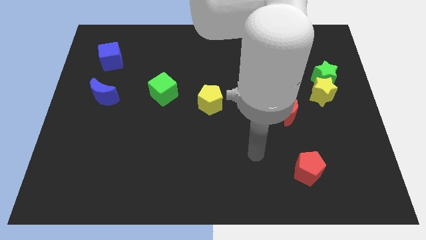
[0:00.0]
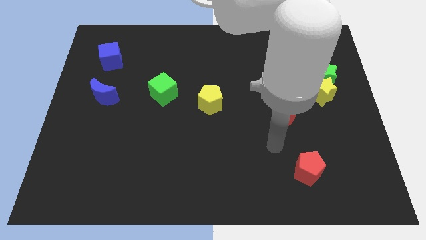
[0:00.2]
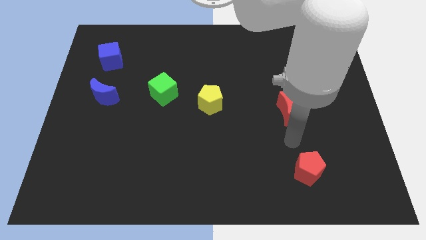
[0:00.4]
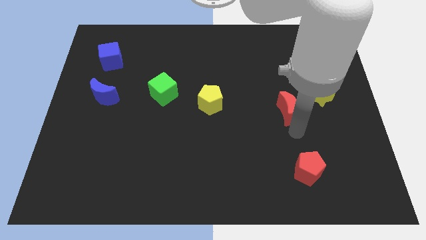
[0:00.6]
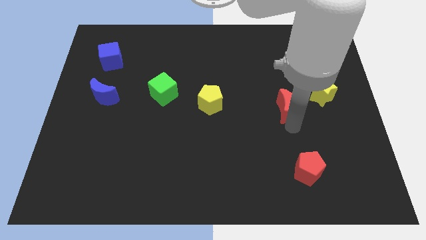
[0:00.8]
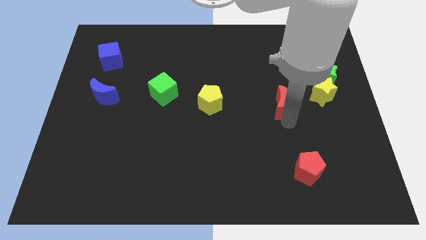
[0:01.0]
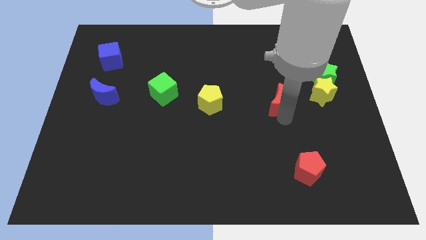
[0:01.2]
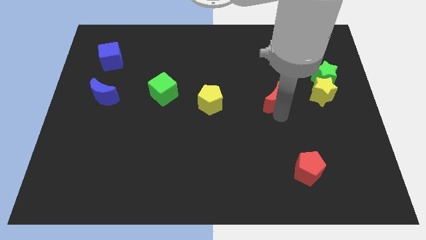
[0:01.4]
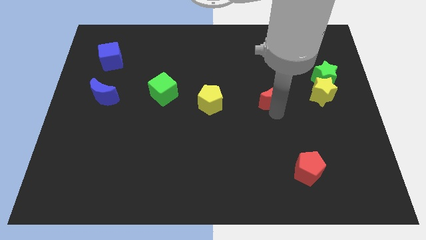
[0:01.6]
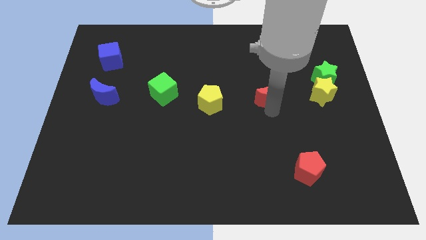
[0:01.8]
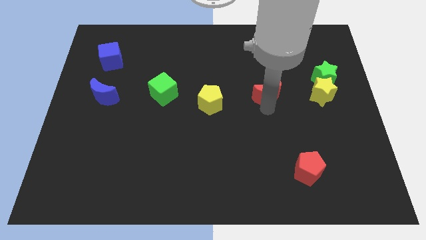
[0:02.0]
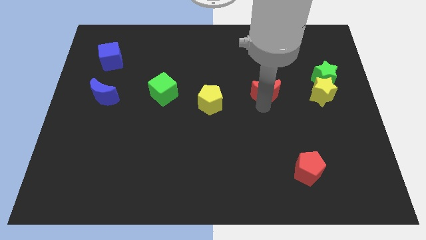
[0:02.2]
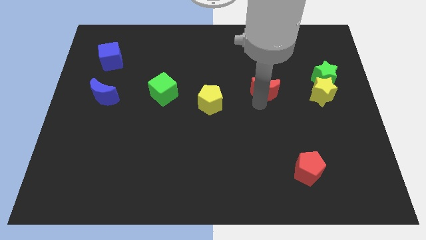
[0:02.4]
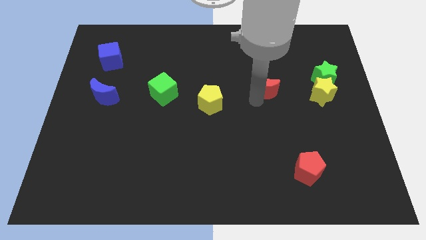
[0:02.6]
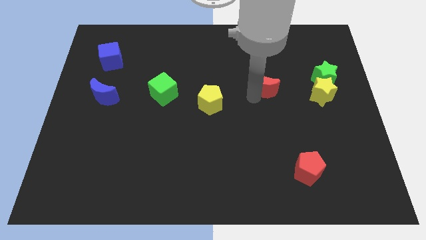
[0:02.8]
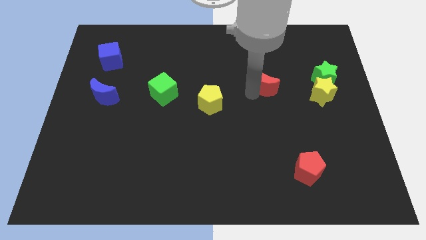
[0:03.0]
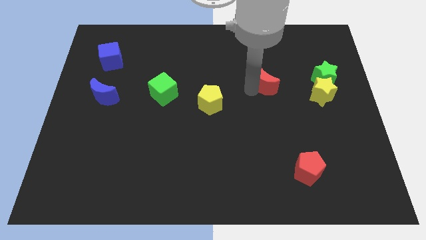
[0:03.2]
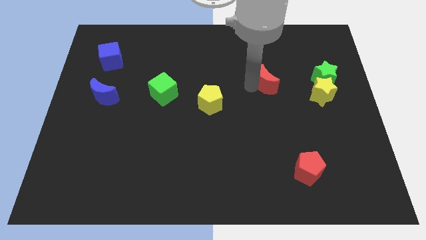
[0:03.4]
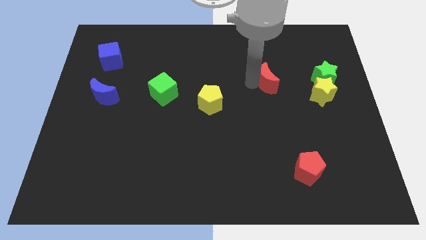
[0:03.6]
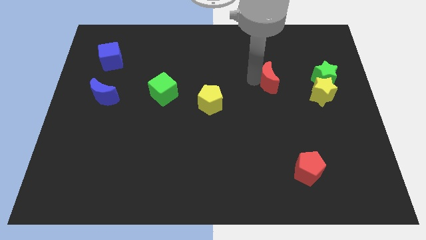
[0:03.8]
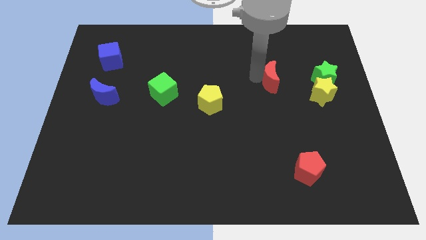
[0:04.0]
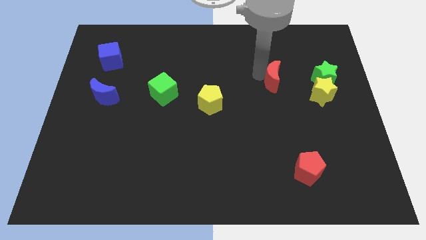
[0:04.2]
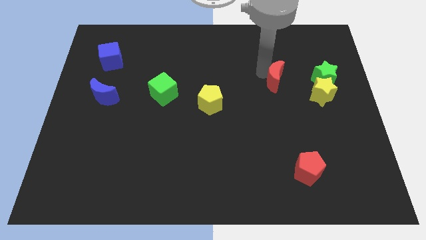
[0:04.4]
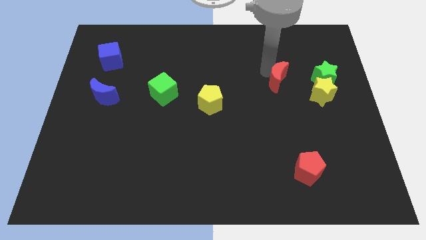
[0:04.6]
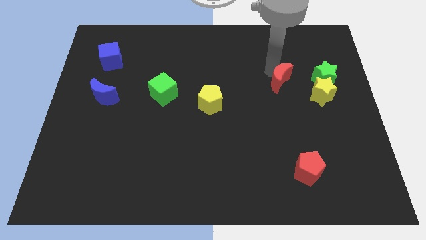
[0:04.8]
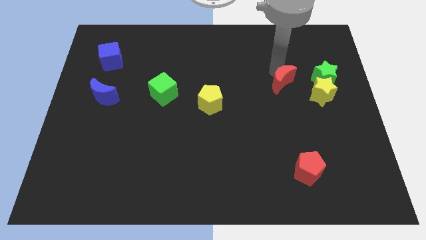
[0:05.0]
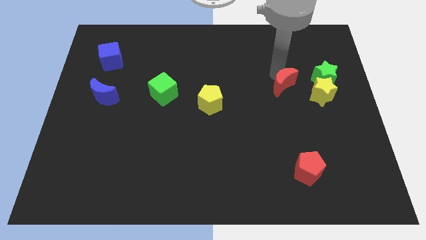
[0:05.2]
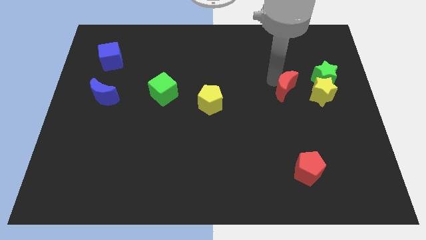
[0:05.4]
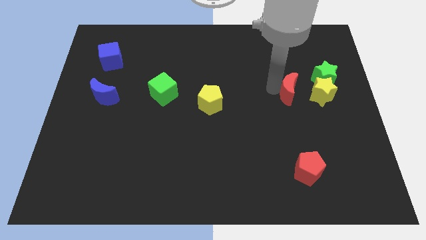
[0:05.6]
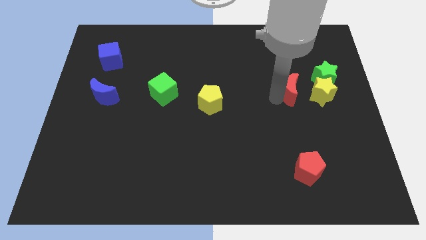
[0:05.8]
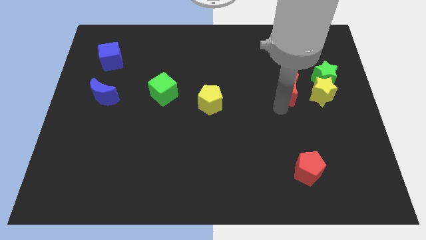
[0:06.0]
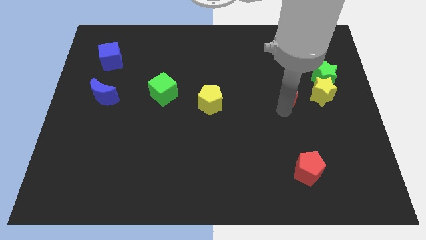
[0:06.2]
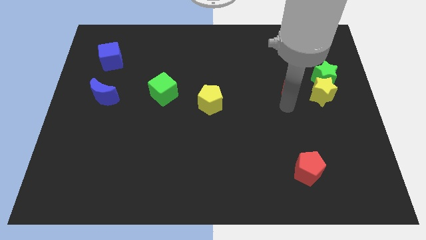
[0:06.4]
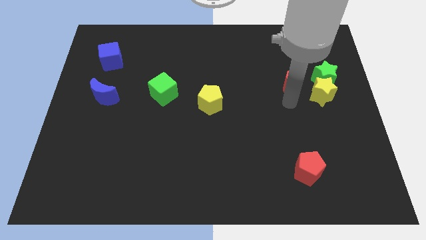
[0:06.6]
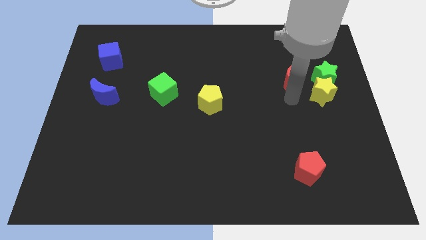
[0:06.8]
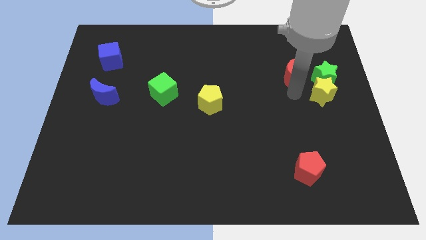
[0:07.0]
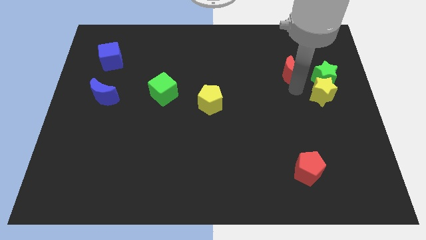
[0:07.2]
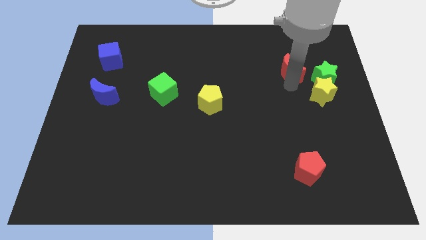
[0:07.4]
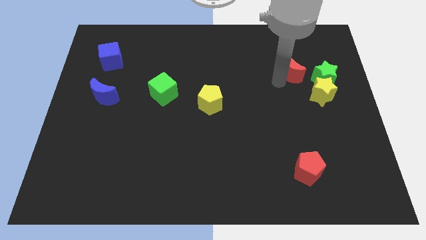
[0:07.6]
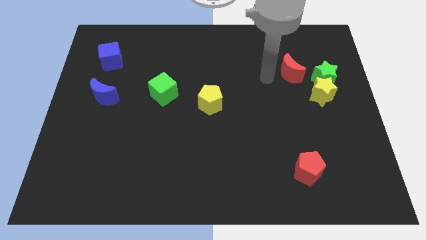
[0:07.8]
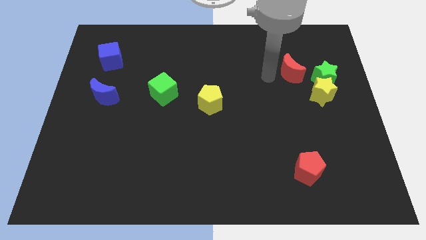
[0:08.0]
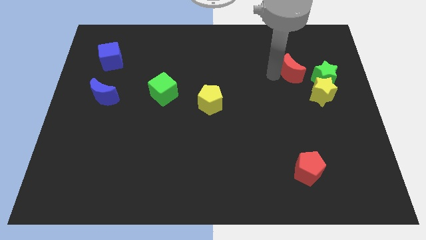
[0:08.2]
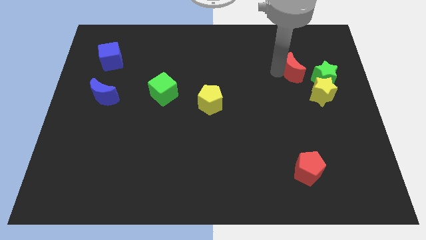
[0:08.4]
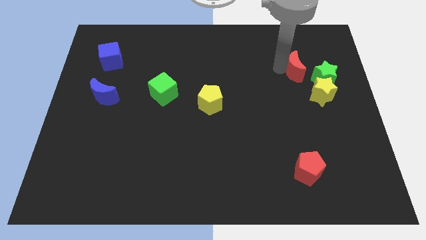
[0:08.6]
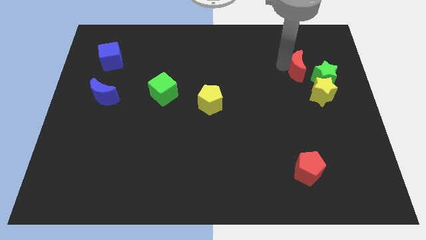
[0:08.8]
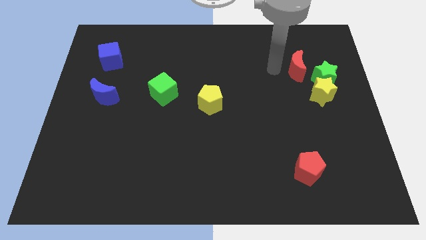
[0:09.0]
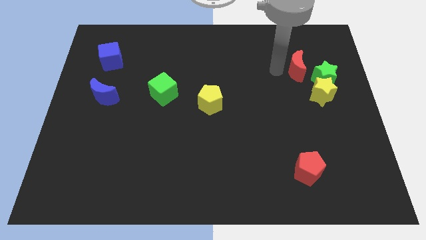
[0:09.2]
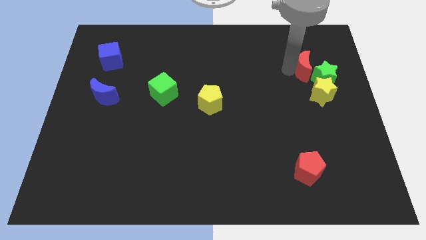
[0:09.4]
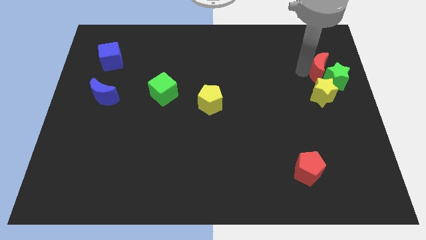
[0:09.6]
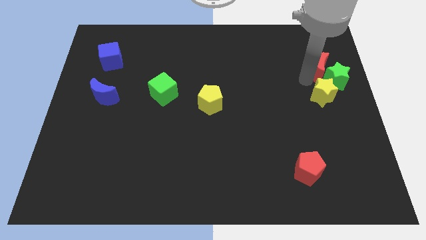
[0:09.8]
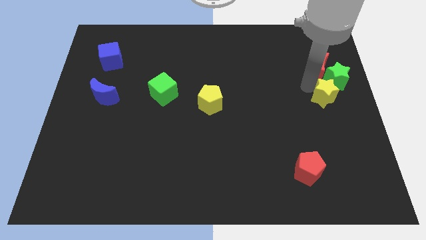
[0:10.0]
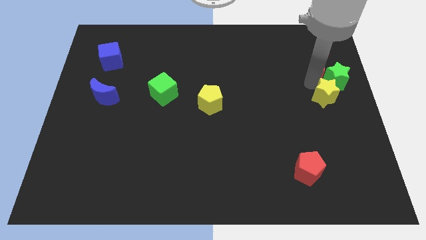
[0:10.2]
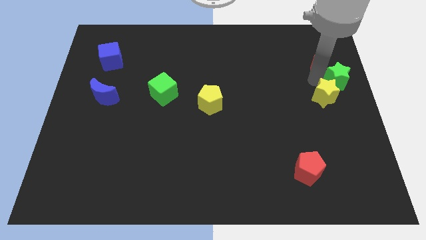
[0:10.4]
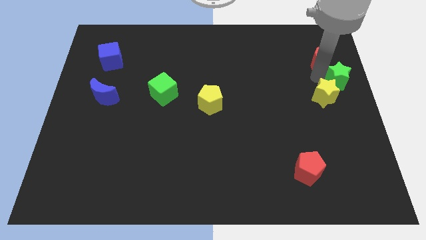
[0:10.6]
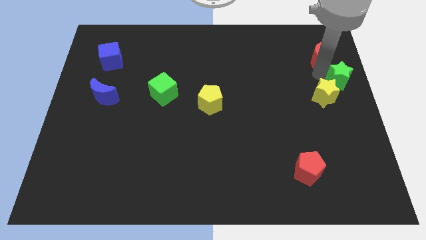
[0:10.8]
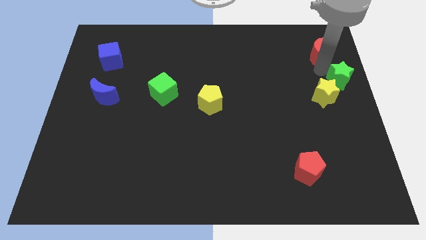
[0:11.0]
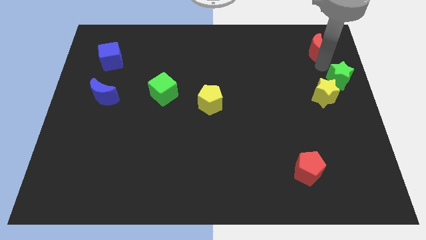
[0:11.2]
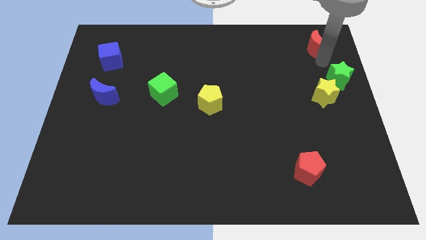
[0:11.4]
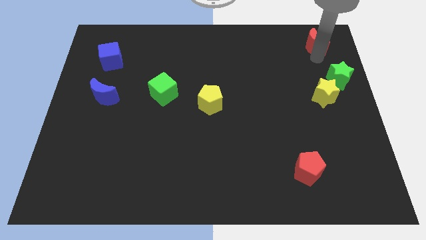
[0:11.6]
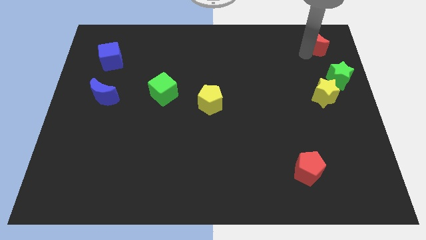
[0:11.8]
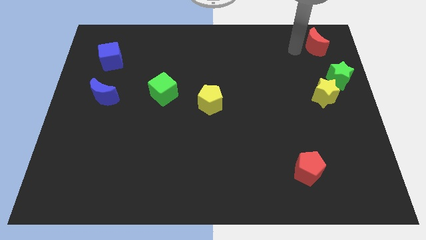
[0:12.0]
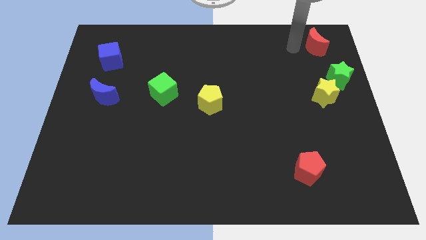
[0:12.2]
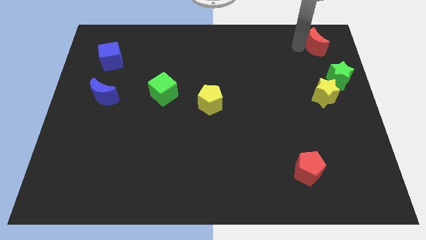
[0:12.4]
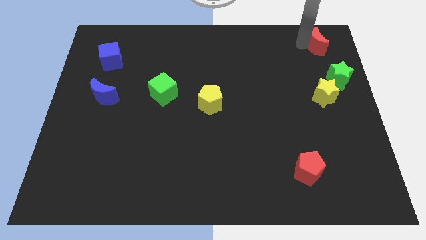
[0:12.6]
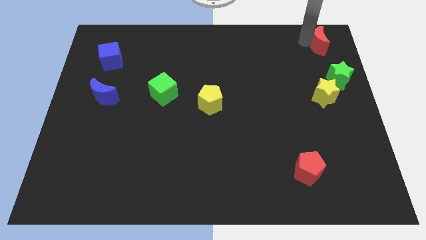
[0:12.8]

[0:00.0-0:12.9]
put the red moon to the top right

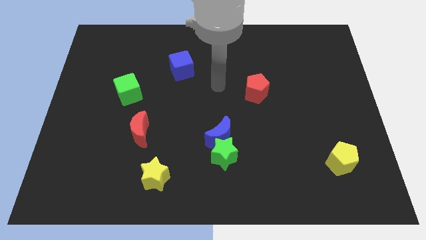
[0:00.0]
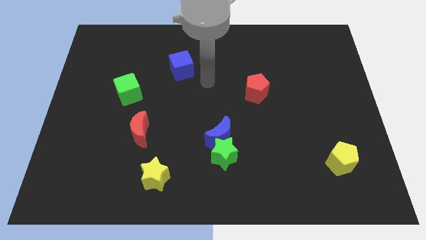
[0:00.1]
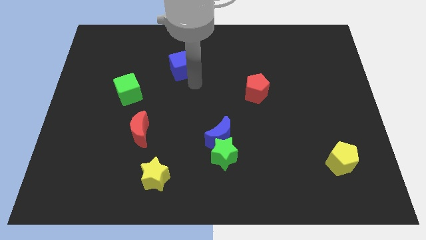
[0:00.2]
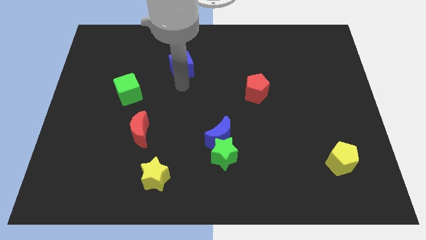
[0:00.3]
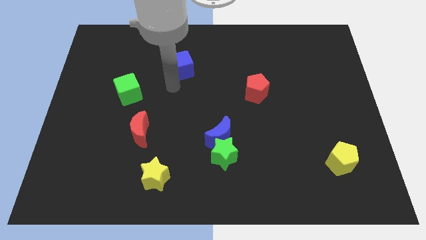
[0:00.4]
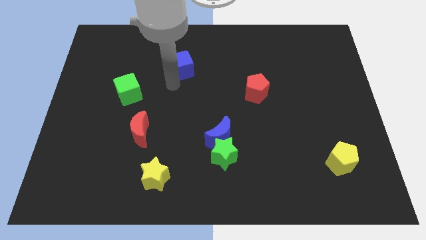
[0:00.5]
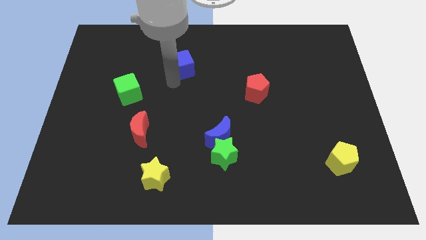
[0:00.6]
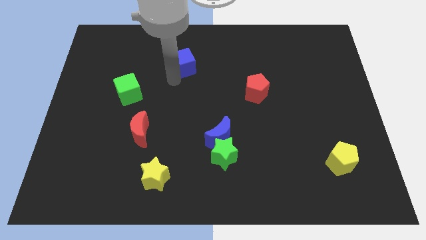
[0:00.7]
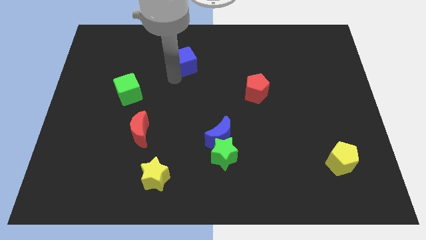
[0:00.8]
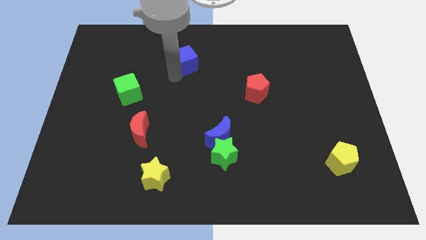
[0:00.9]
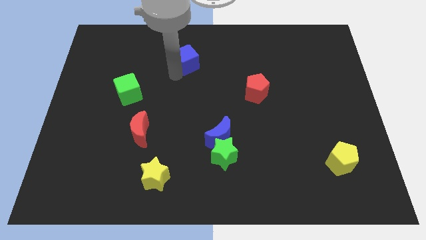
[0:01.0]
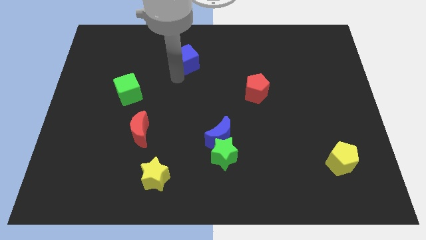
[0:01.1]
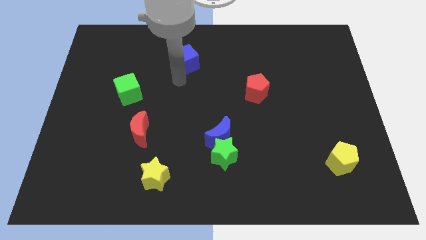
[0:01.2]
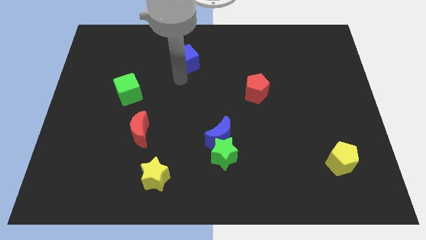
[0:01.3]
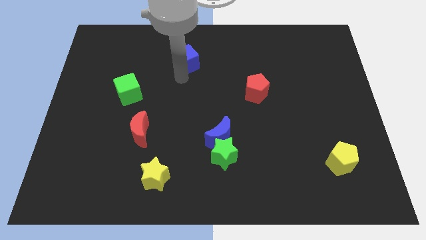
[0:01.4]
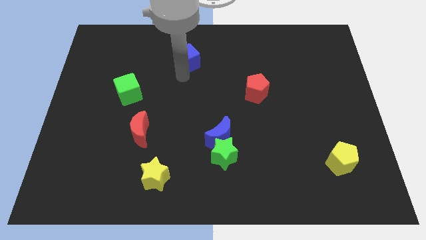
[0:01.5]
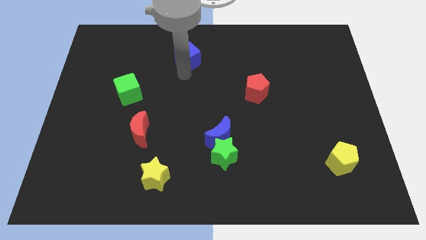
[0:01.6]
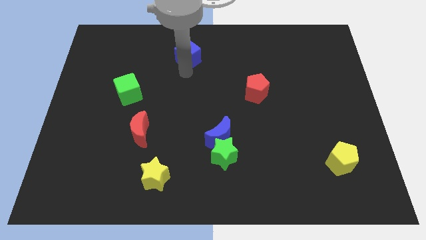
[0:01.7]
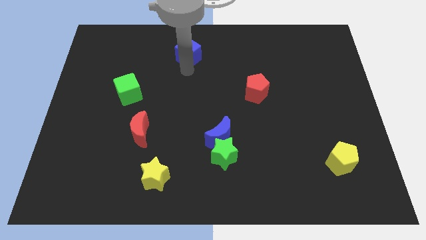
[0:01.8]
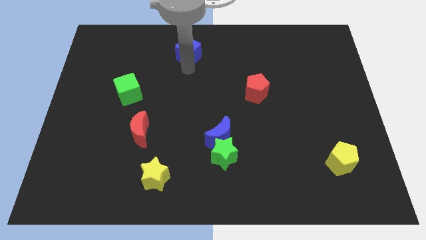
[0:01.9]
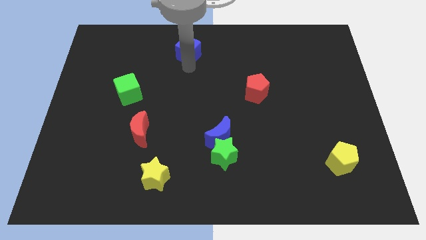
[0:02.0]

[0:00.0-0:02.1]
put the blue cube to the top
